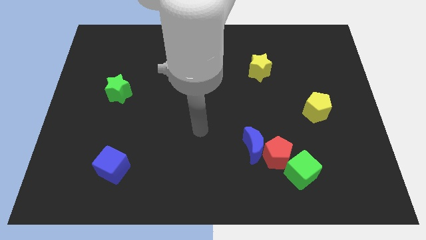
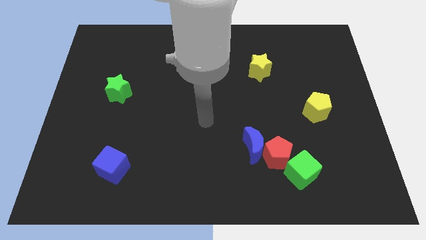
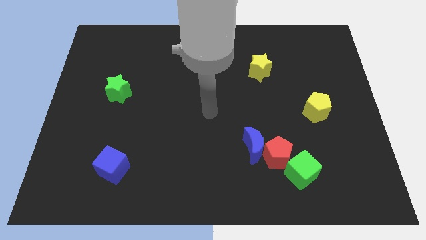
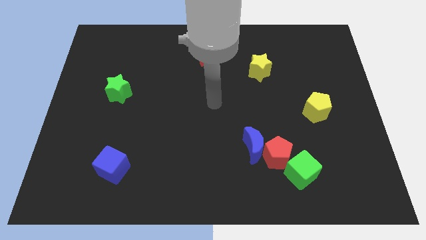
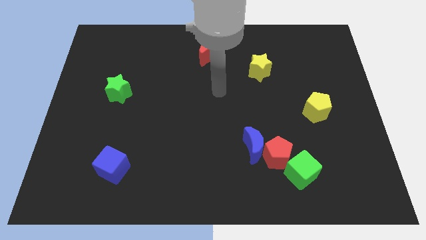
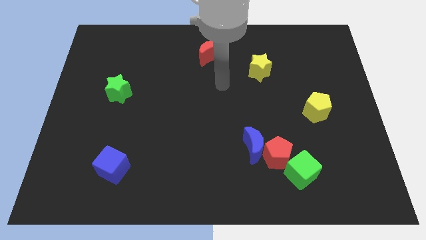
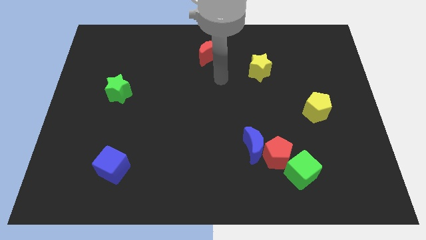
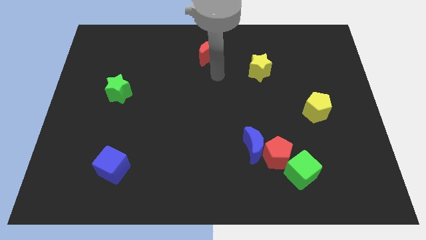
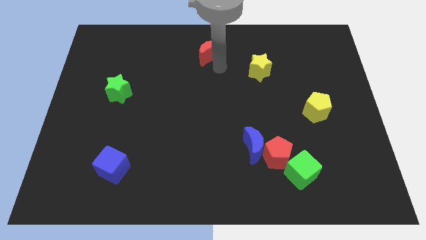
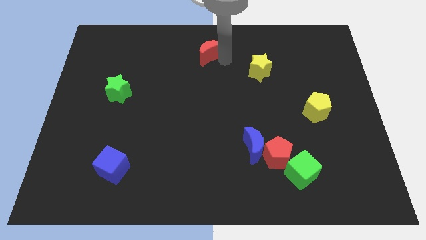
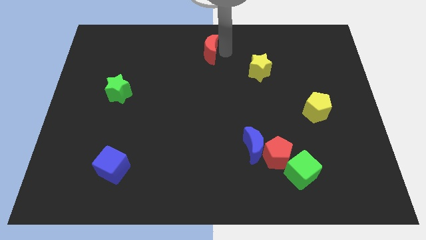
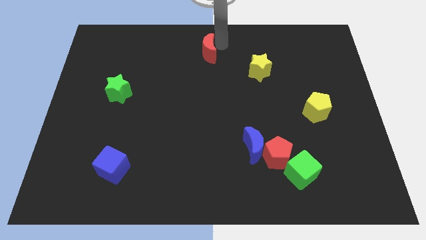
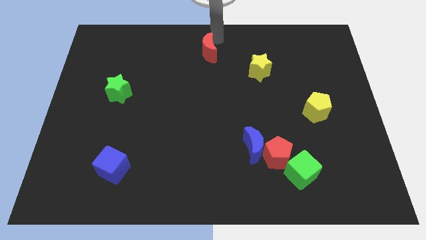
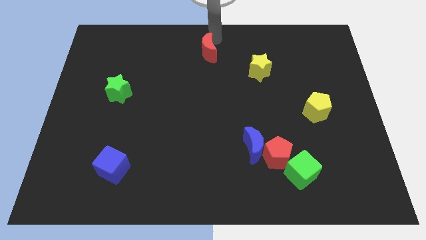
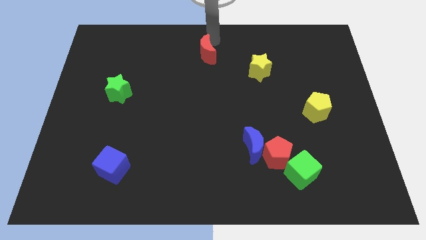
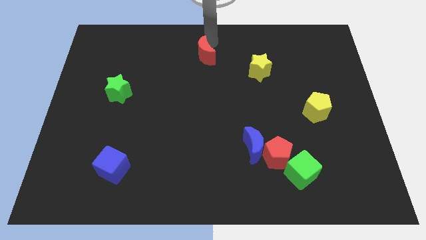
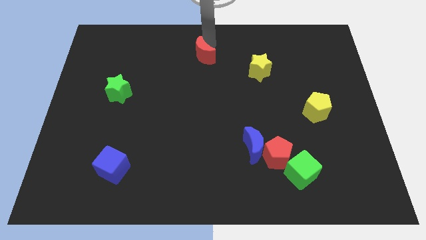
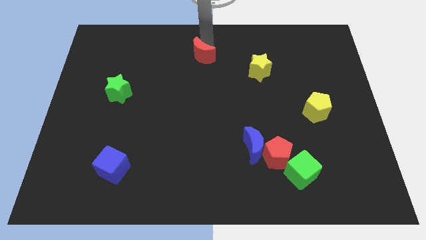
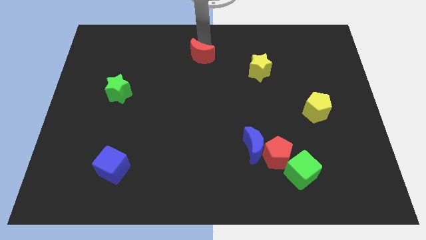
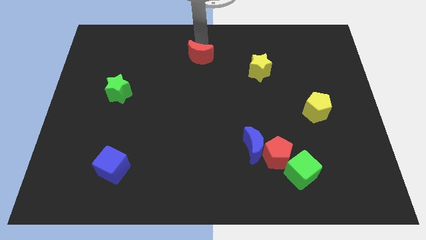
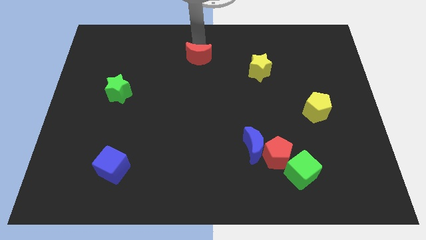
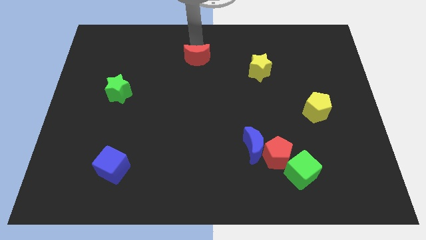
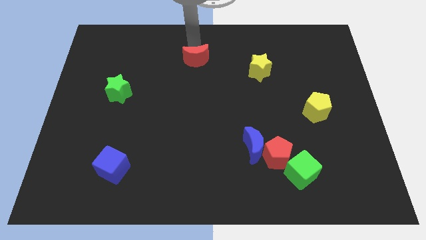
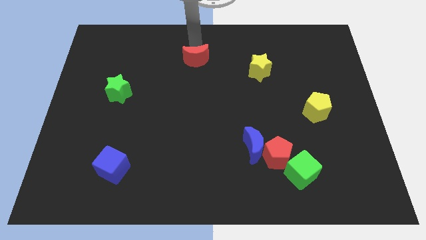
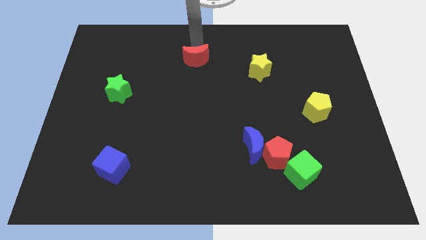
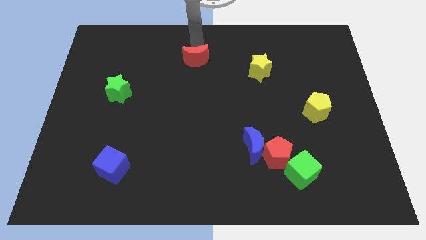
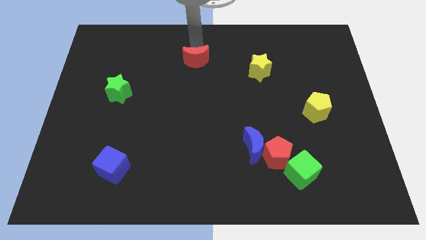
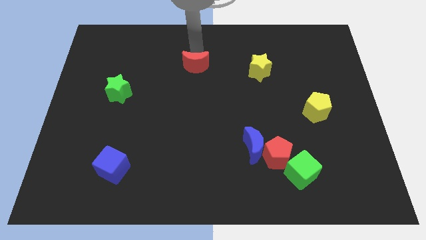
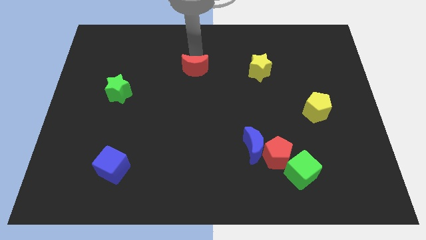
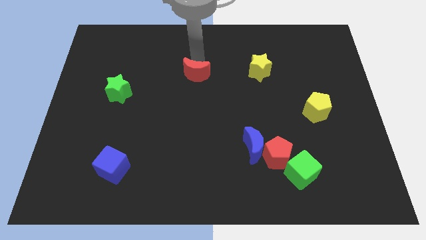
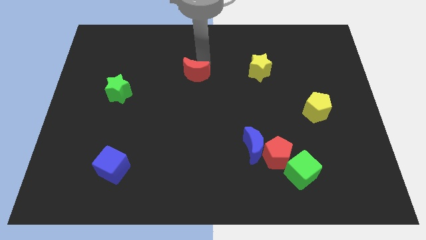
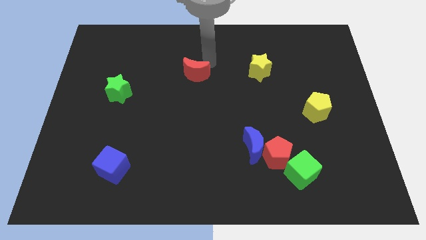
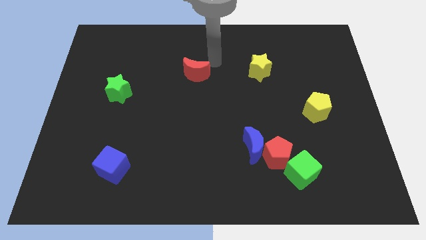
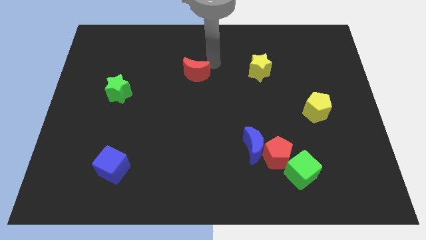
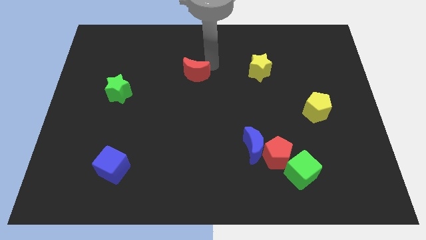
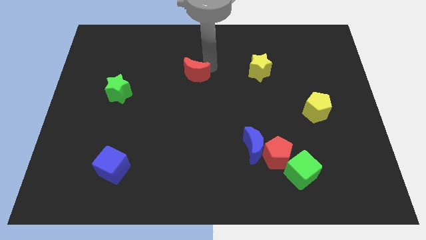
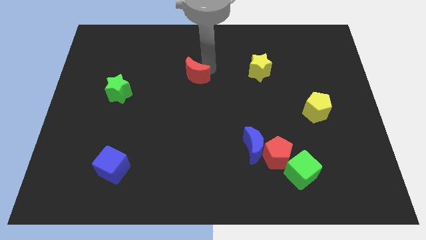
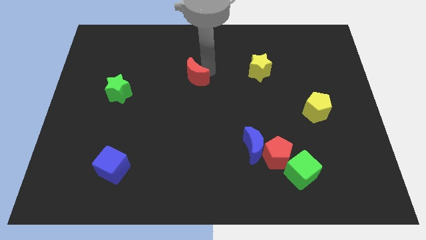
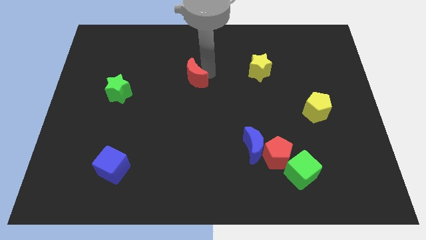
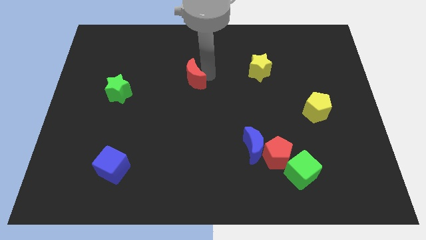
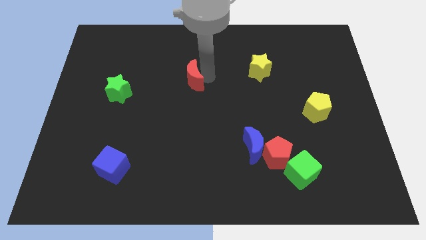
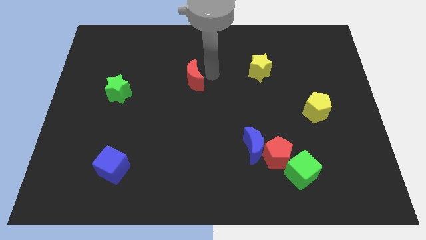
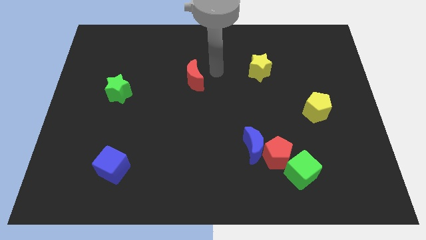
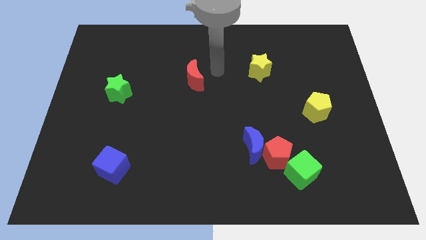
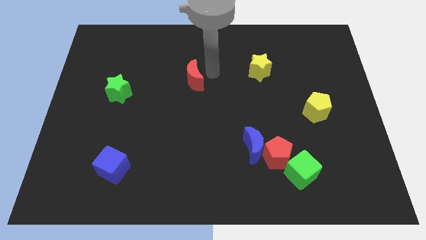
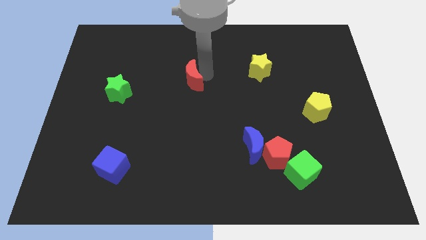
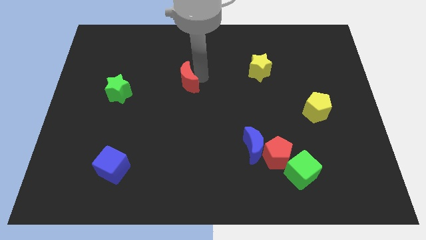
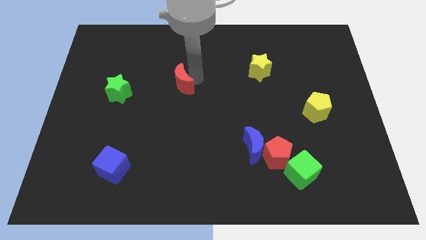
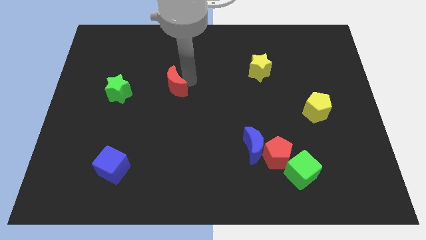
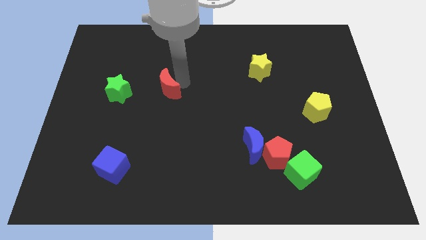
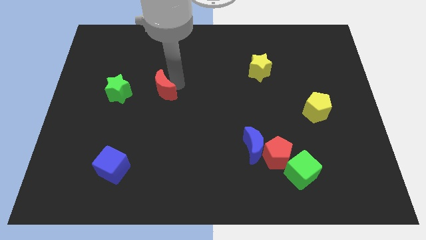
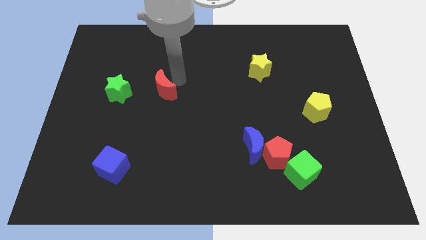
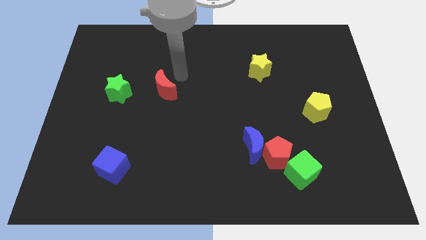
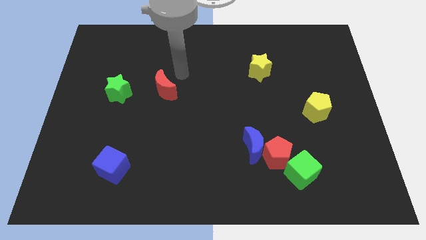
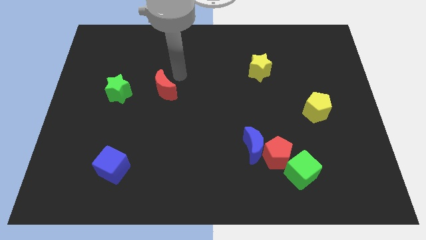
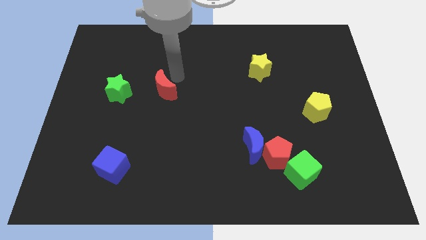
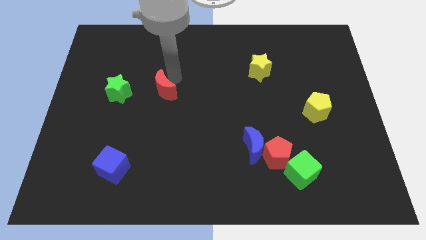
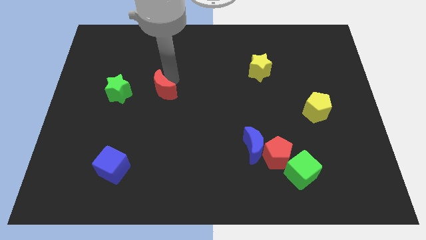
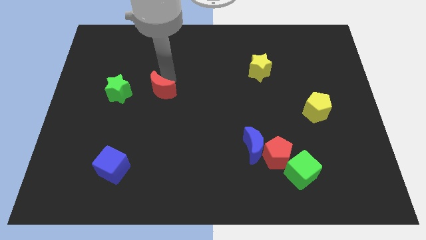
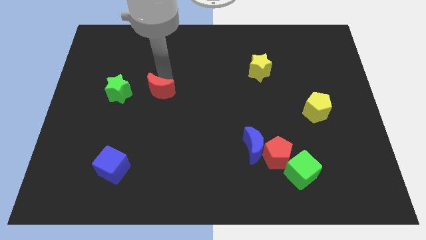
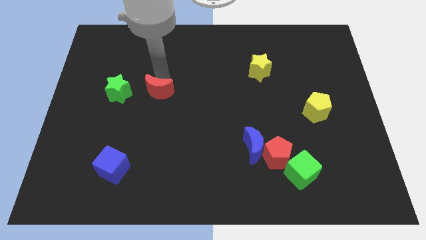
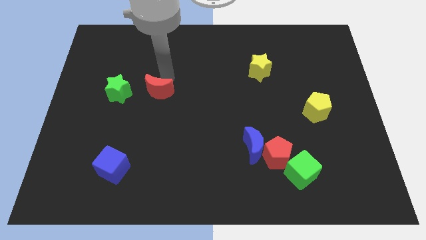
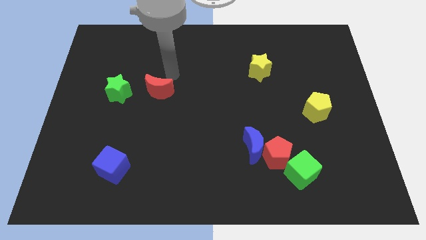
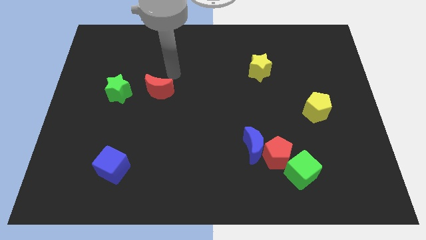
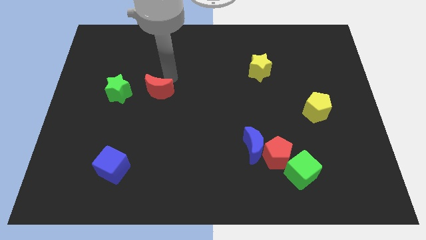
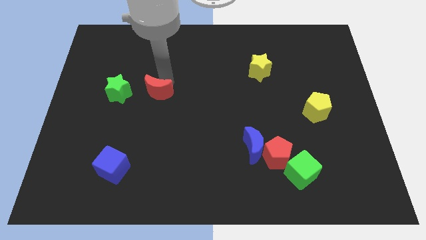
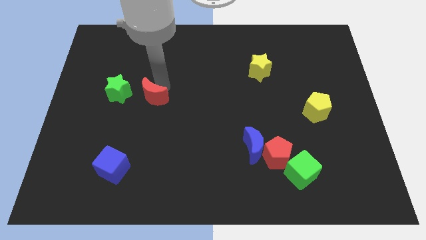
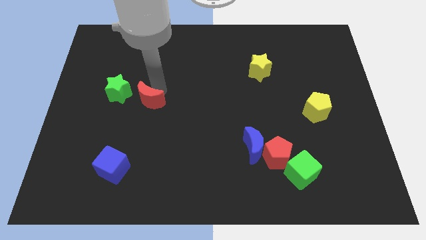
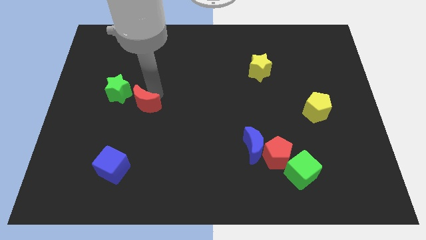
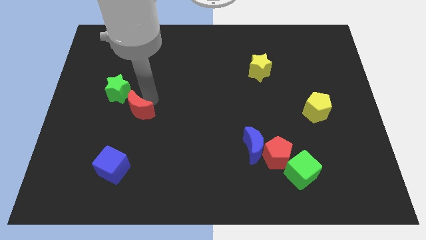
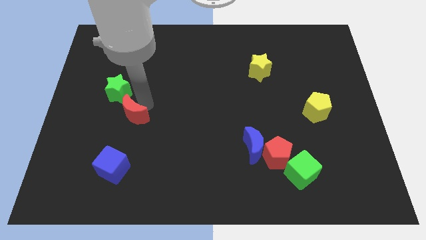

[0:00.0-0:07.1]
put the red moon above the blue cube

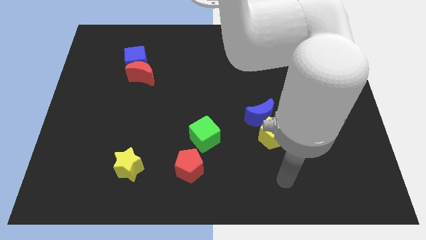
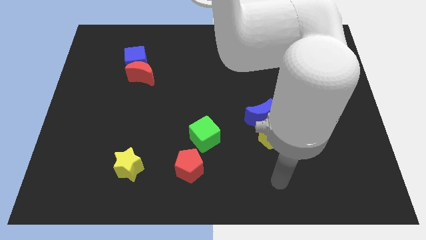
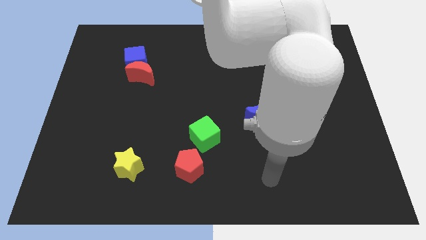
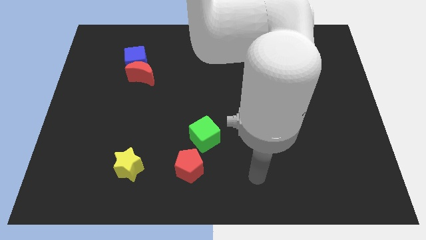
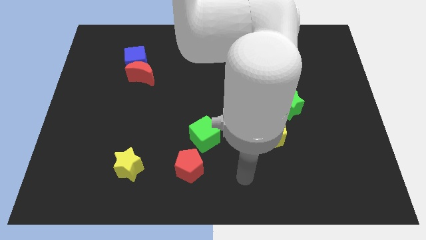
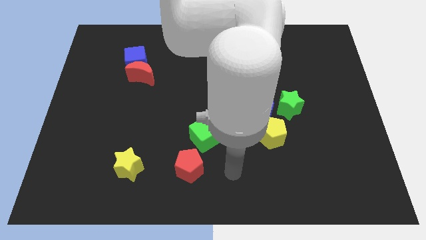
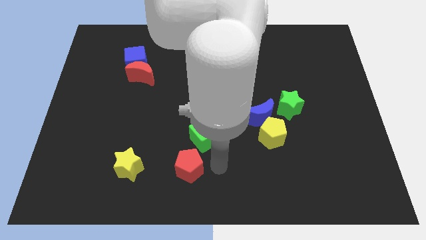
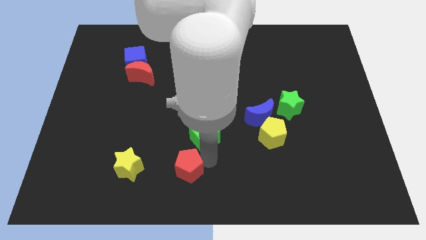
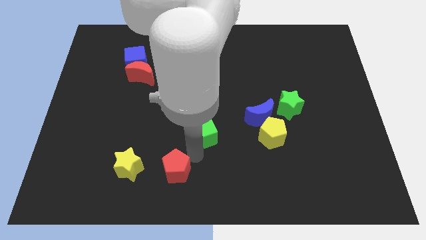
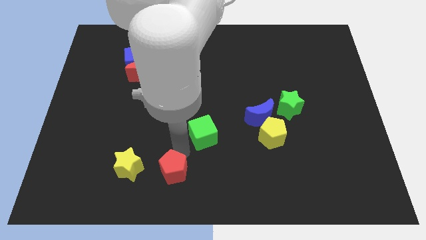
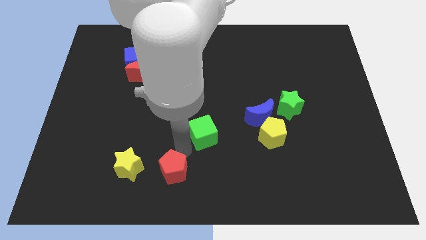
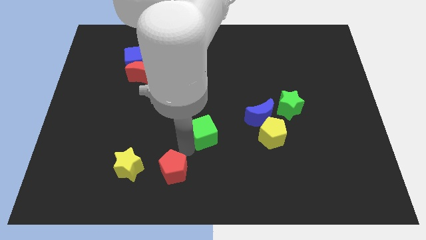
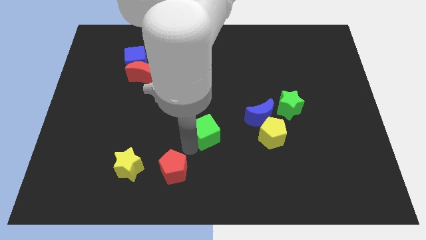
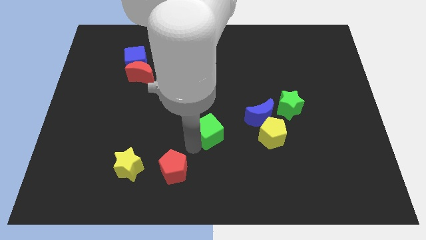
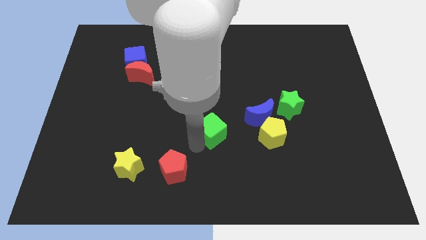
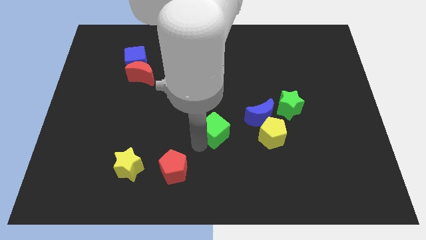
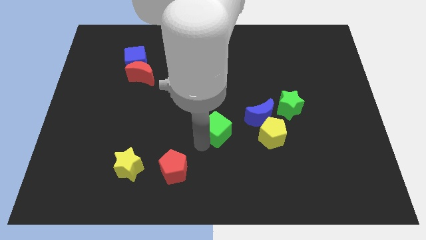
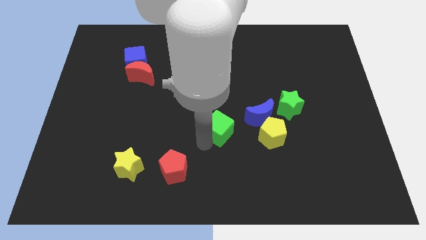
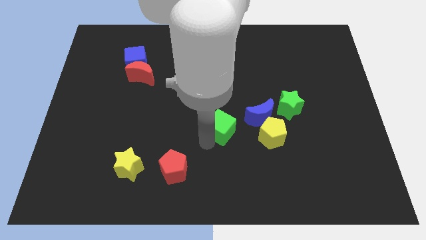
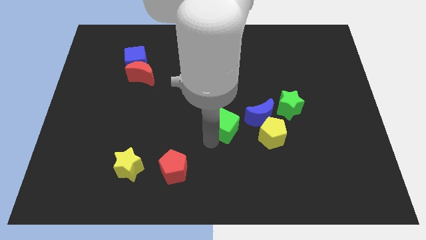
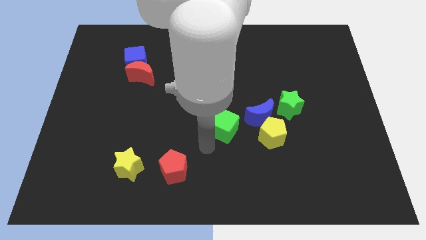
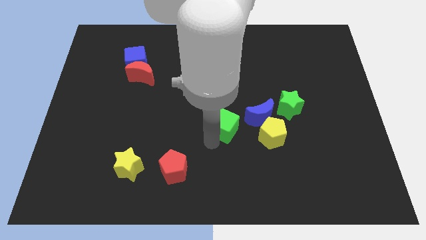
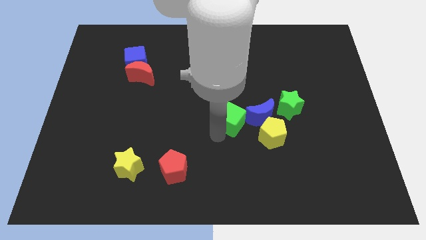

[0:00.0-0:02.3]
move the green cube to the top left of the yellow pentagon
